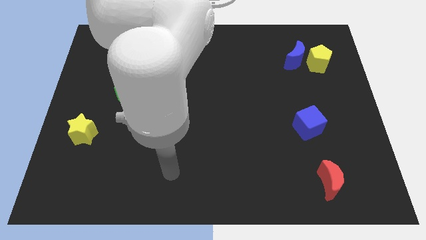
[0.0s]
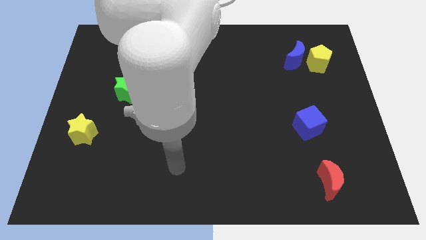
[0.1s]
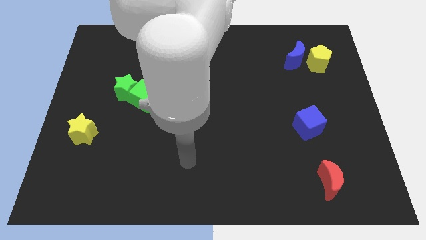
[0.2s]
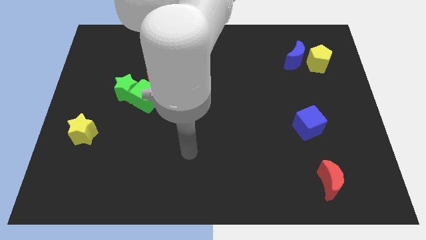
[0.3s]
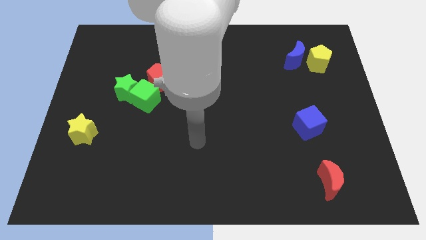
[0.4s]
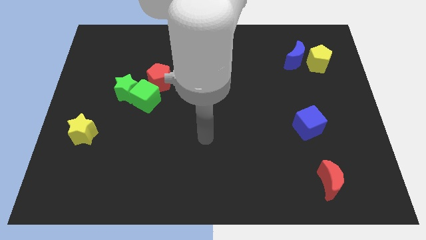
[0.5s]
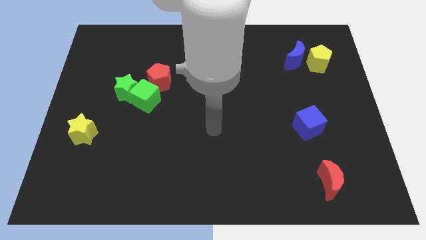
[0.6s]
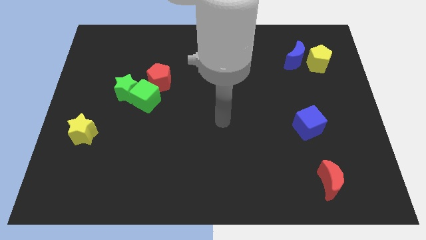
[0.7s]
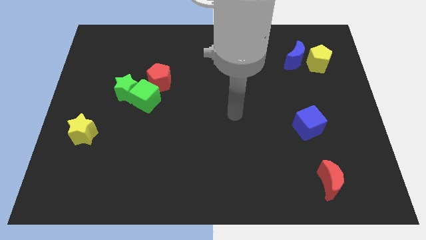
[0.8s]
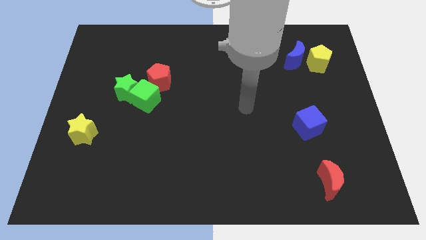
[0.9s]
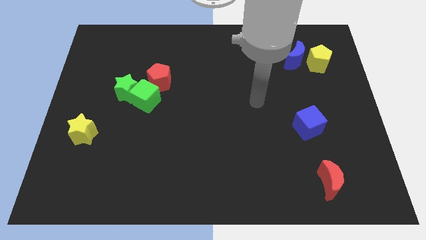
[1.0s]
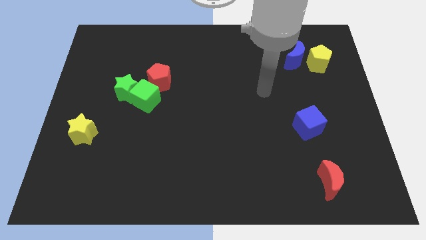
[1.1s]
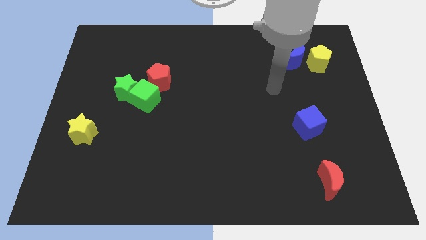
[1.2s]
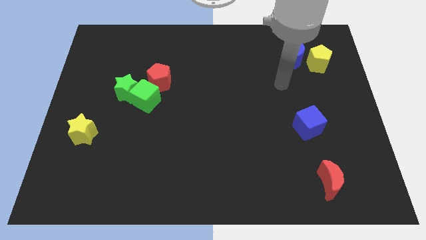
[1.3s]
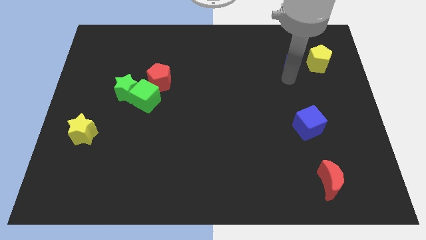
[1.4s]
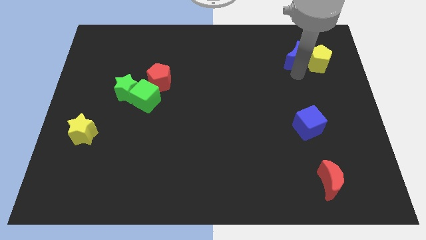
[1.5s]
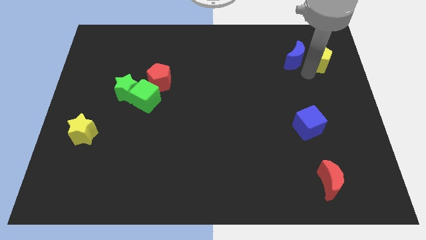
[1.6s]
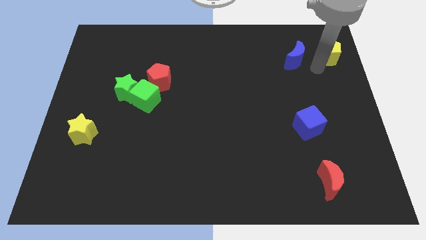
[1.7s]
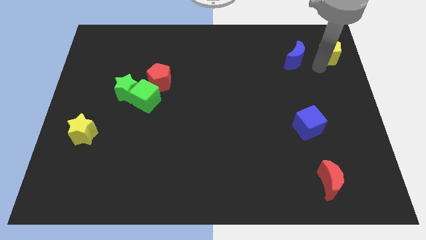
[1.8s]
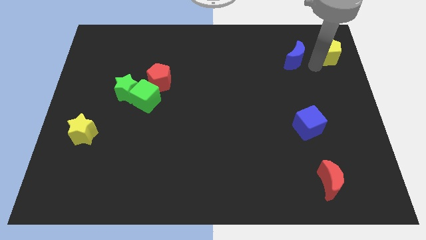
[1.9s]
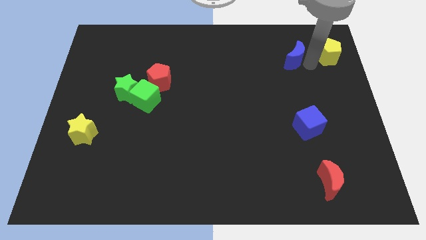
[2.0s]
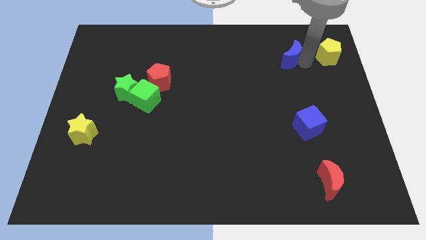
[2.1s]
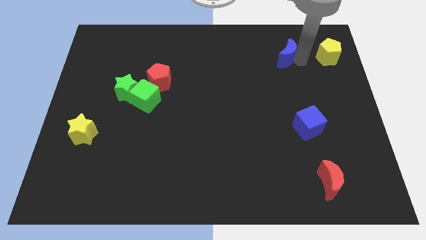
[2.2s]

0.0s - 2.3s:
move the blue moon away from the yellow pentagon

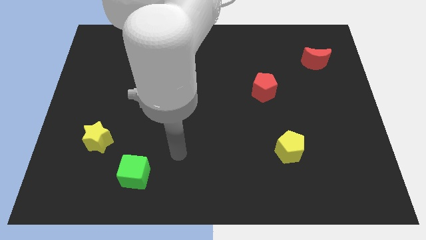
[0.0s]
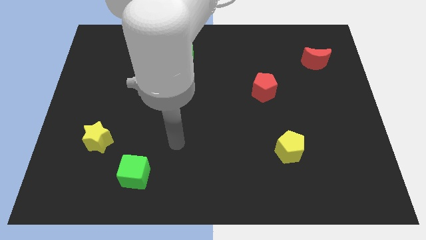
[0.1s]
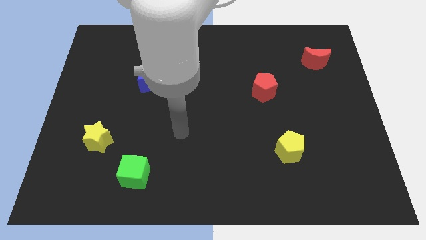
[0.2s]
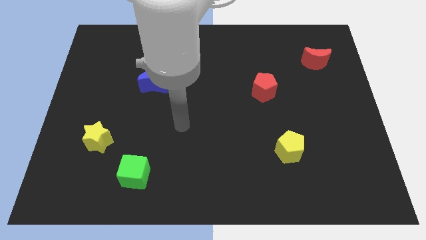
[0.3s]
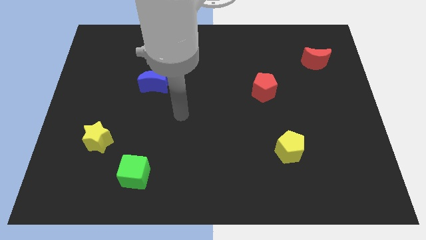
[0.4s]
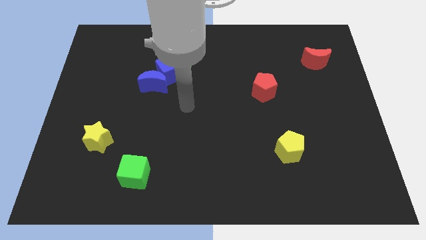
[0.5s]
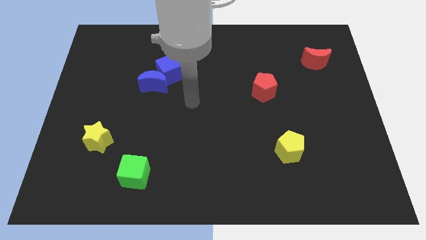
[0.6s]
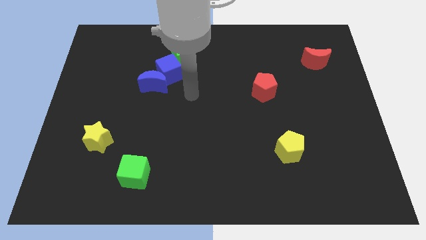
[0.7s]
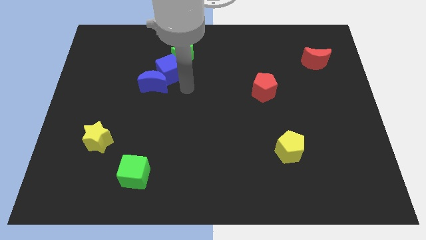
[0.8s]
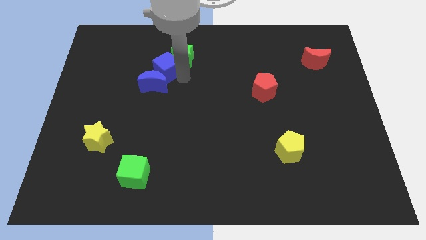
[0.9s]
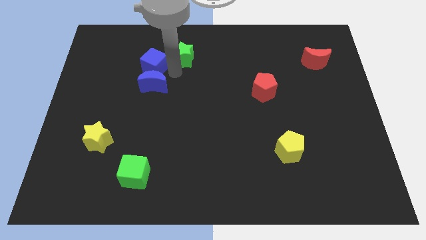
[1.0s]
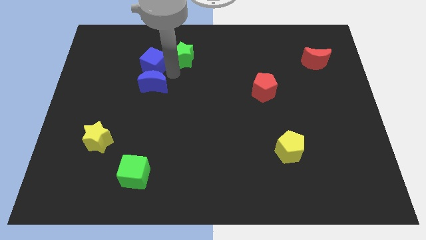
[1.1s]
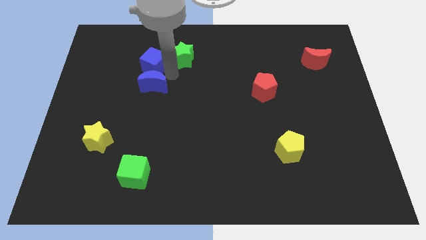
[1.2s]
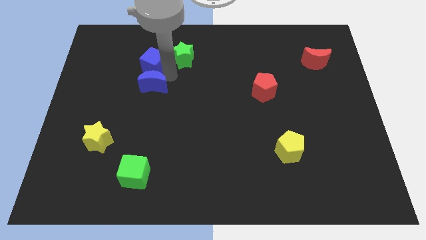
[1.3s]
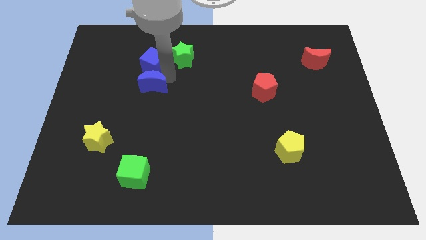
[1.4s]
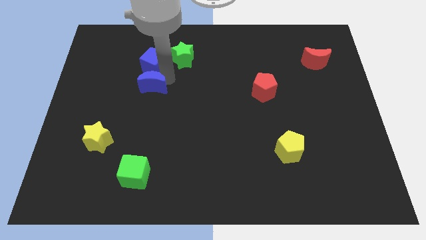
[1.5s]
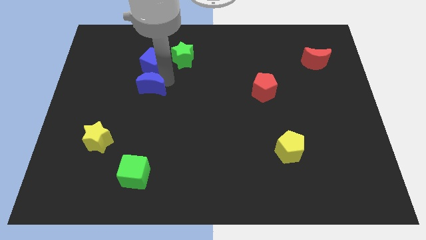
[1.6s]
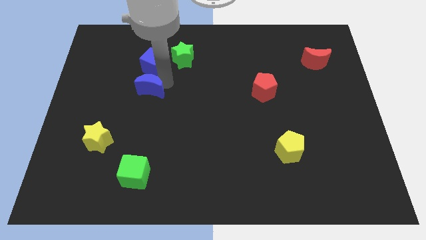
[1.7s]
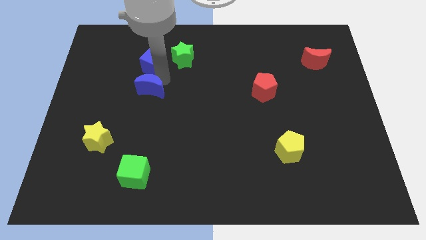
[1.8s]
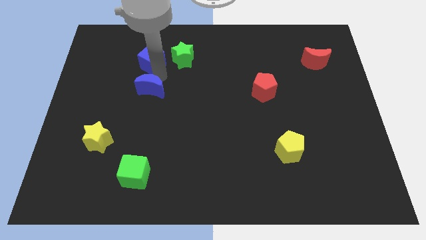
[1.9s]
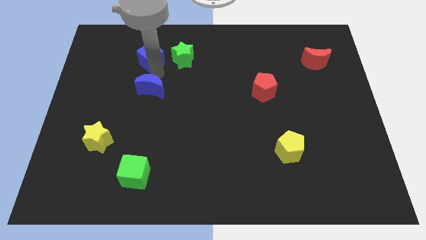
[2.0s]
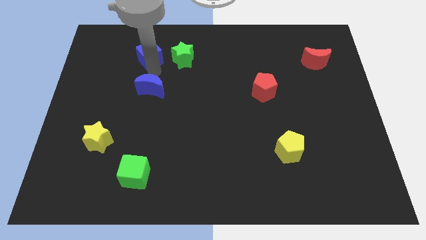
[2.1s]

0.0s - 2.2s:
pull the blue moon apart from the blue cube

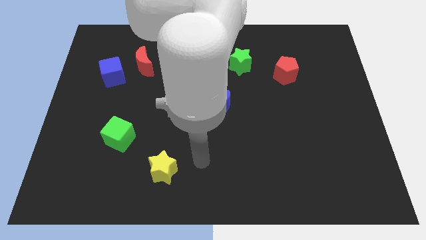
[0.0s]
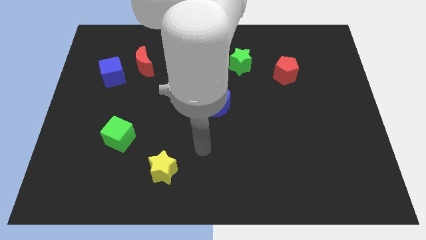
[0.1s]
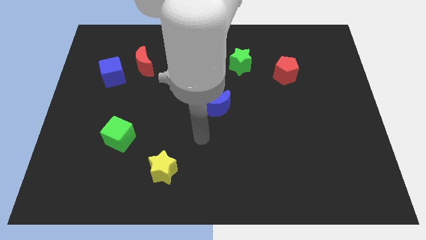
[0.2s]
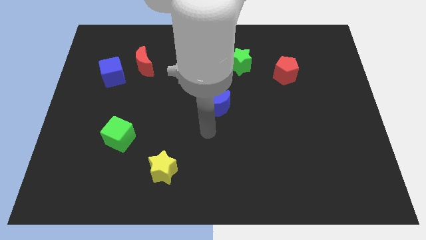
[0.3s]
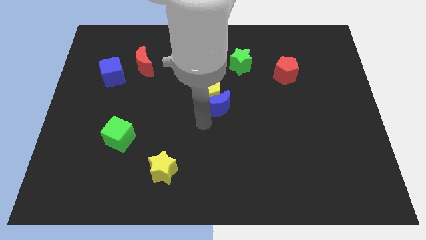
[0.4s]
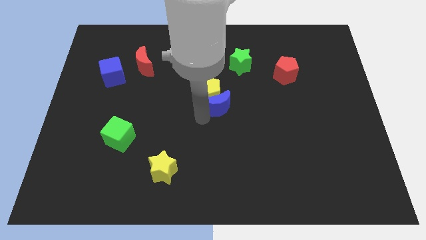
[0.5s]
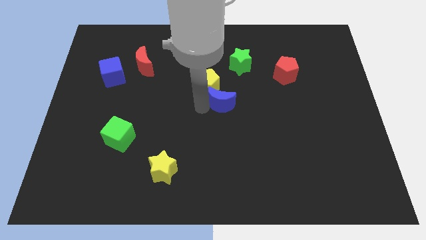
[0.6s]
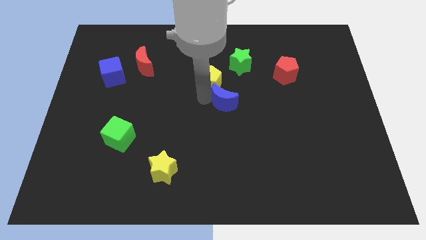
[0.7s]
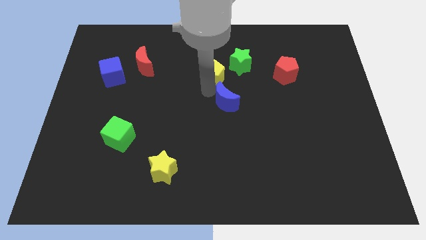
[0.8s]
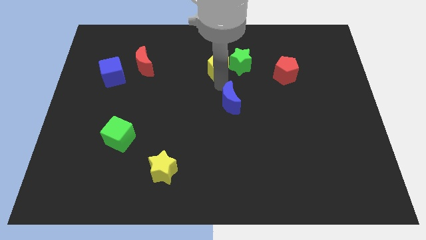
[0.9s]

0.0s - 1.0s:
pull the blue moon apart from the yellow pentagon

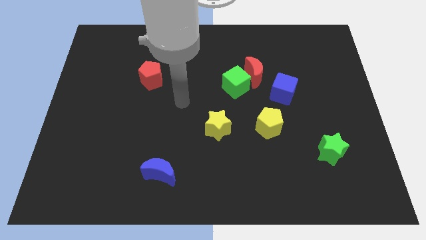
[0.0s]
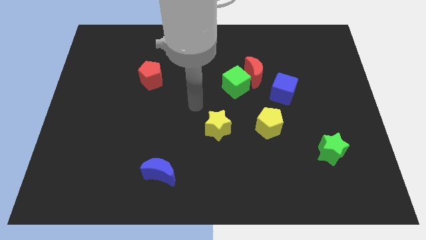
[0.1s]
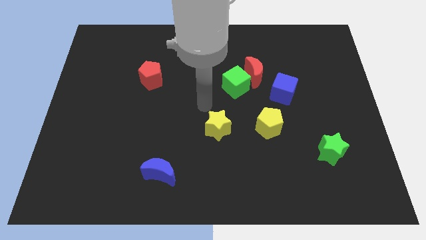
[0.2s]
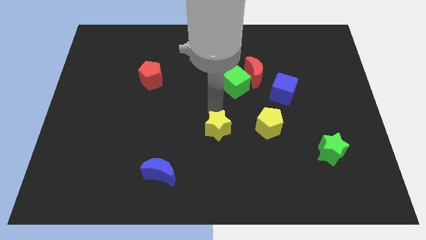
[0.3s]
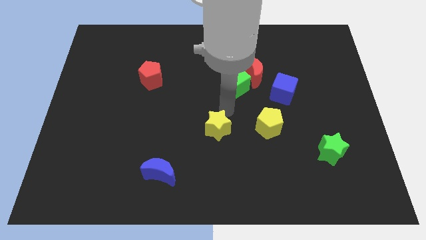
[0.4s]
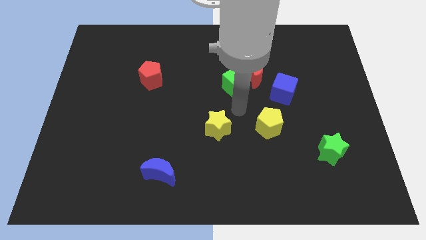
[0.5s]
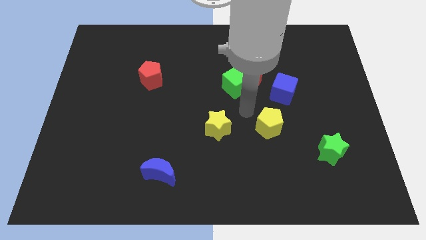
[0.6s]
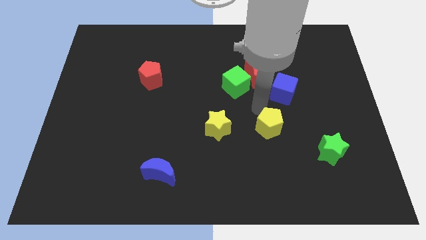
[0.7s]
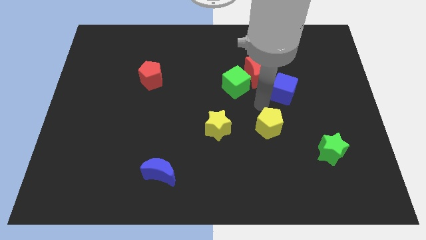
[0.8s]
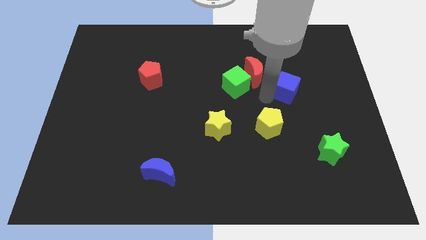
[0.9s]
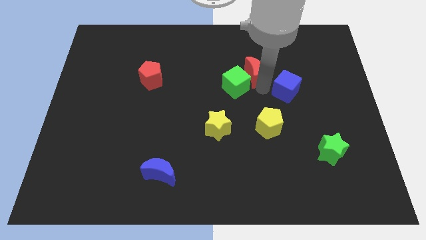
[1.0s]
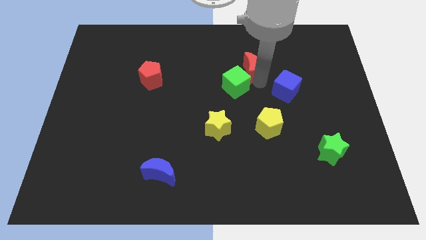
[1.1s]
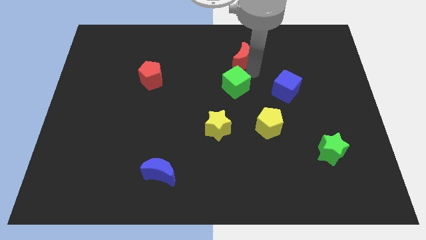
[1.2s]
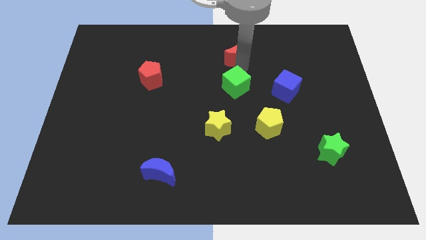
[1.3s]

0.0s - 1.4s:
move the green cube away from the red moon

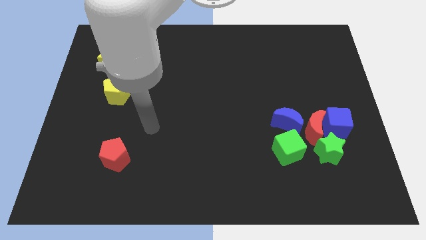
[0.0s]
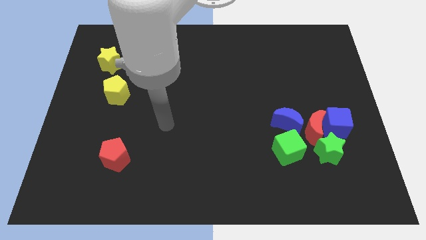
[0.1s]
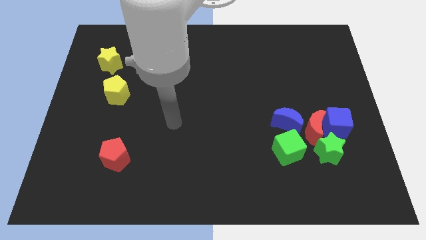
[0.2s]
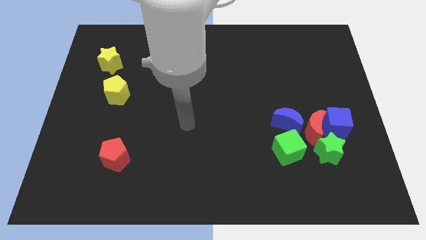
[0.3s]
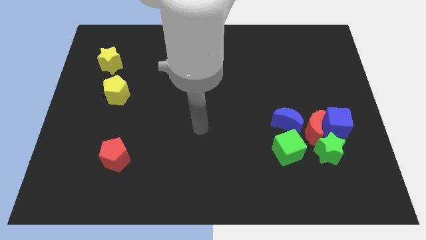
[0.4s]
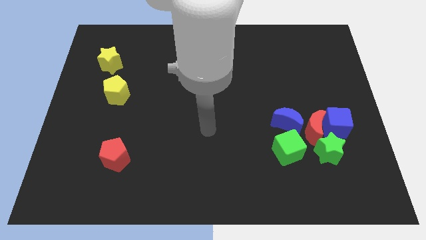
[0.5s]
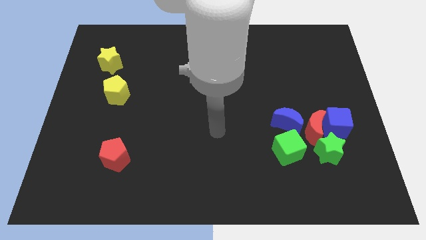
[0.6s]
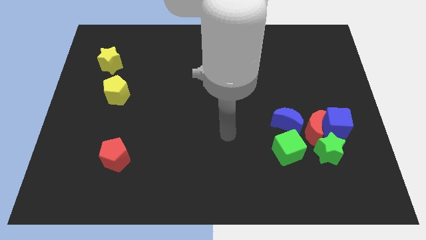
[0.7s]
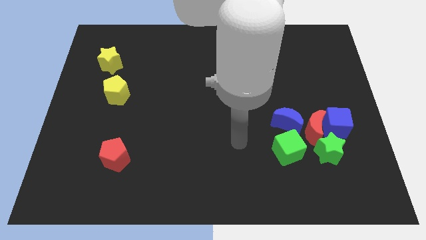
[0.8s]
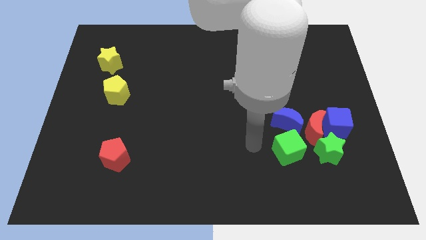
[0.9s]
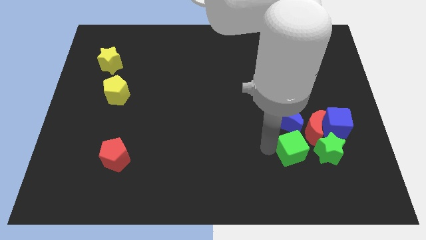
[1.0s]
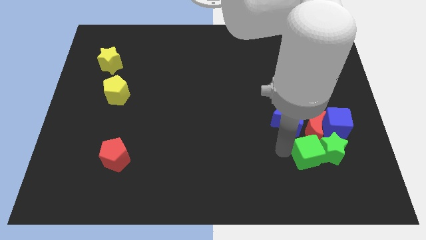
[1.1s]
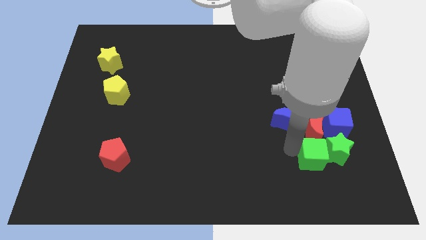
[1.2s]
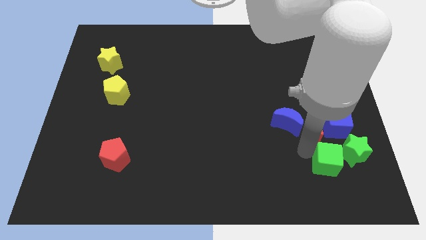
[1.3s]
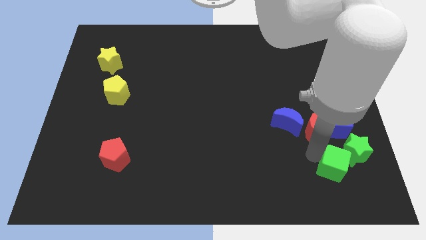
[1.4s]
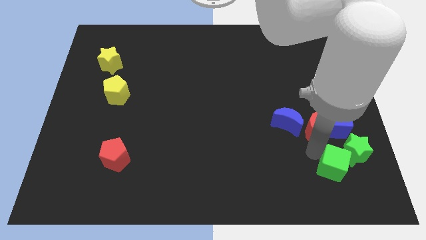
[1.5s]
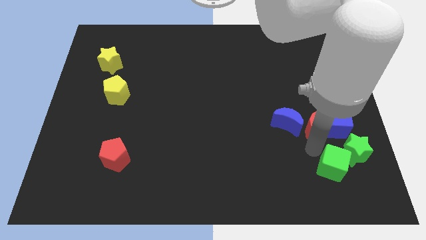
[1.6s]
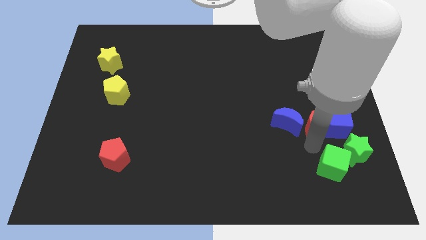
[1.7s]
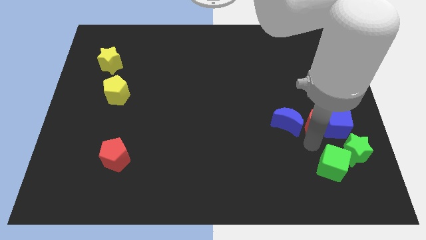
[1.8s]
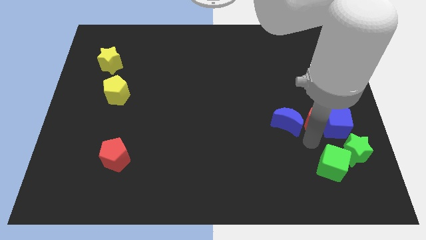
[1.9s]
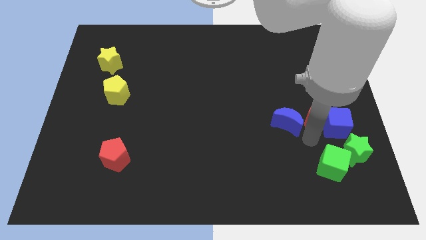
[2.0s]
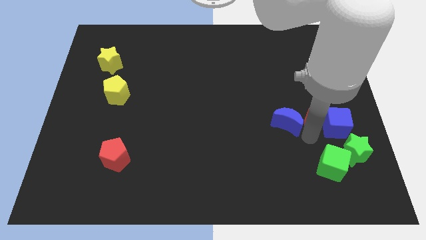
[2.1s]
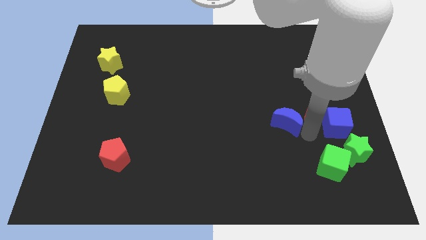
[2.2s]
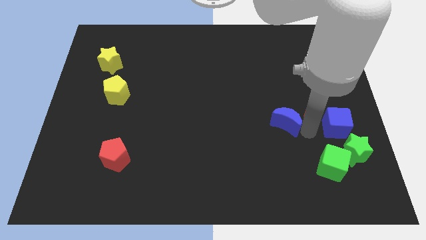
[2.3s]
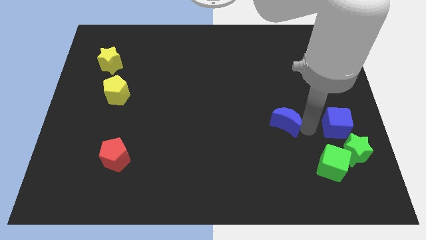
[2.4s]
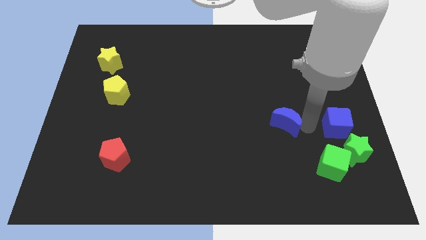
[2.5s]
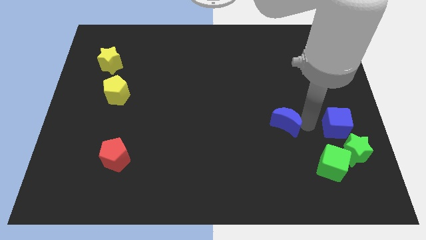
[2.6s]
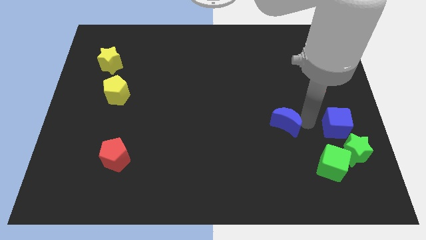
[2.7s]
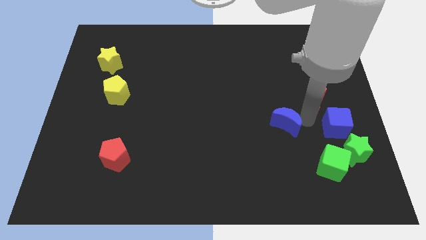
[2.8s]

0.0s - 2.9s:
move the red moon away from the clump
